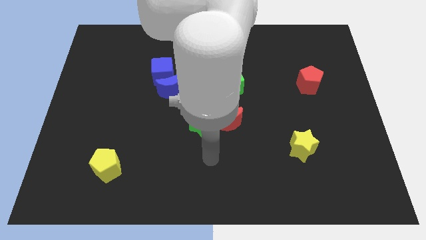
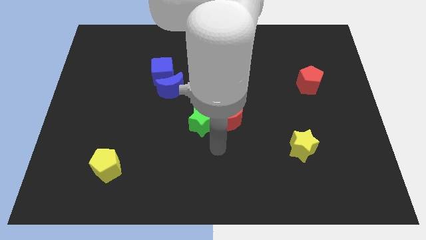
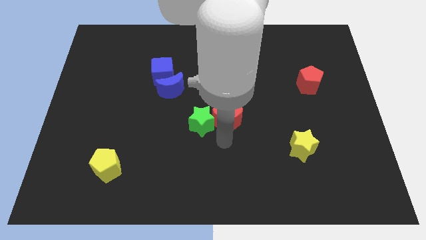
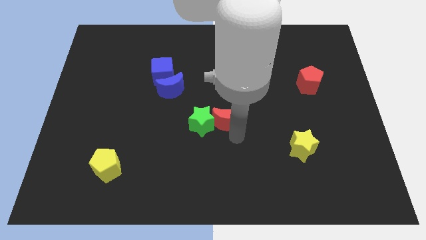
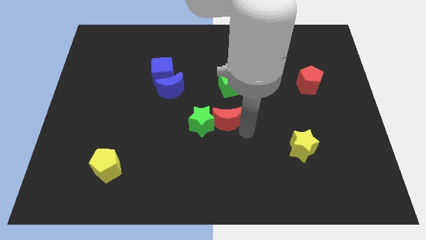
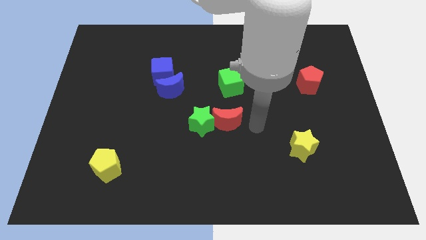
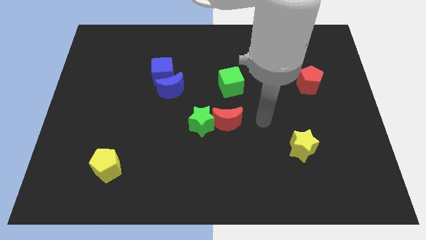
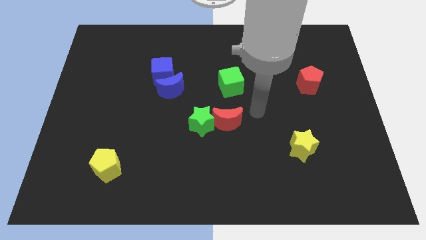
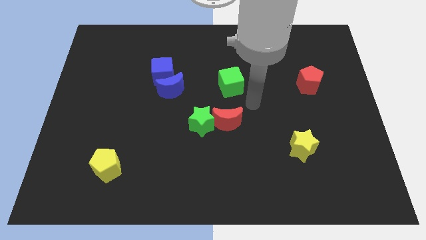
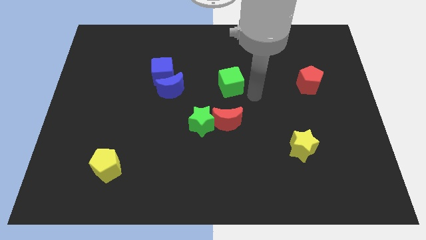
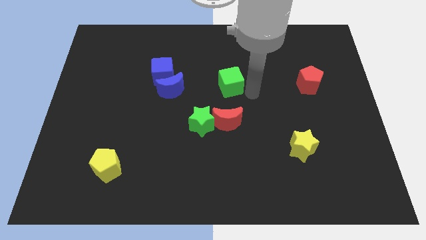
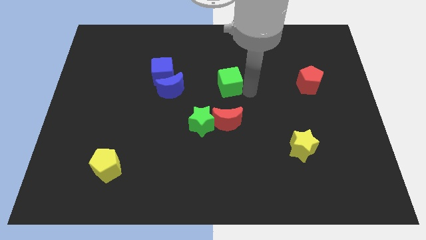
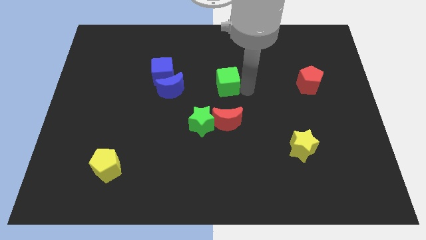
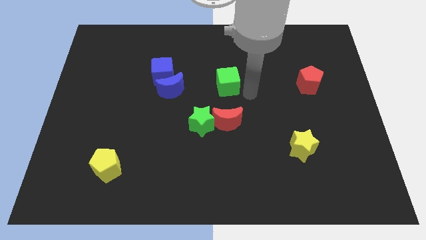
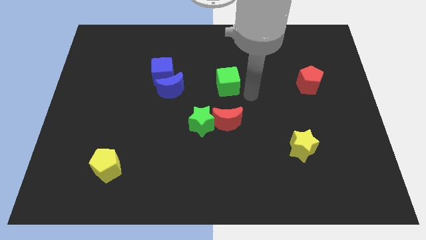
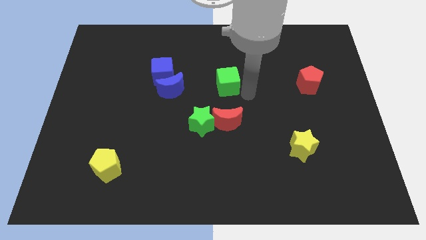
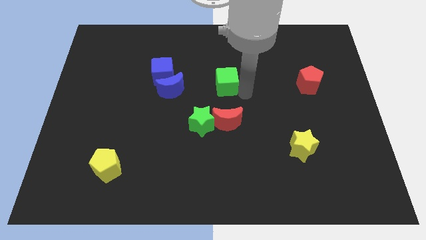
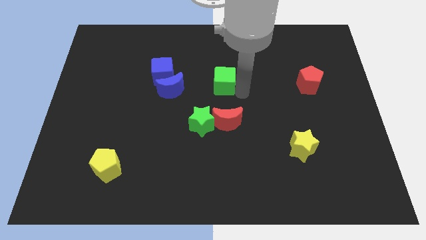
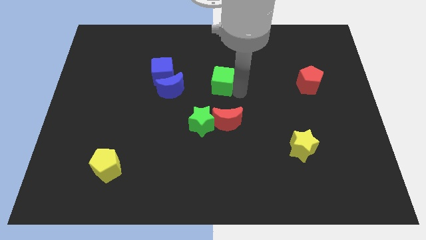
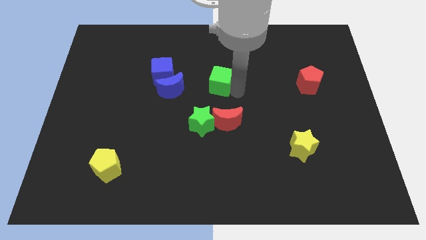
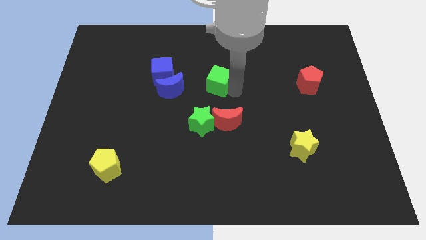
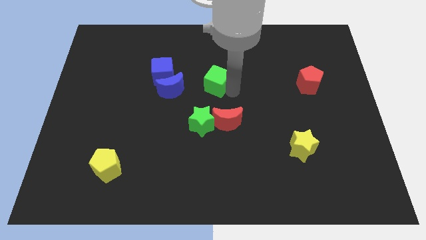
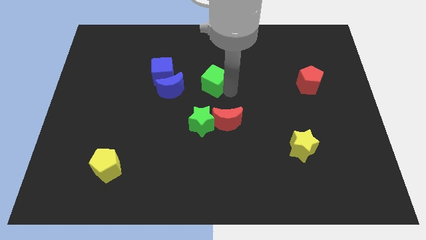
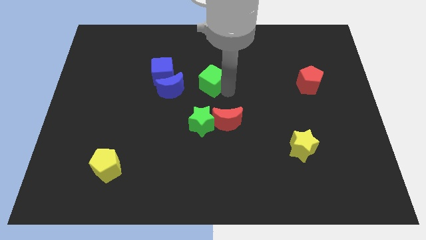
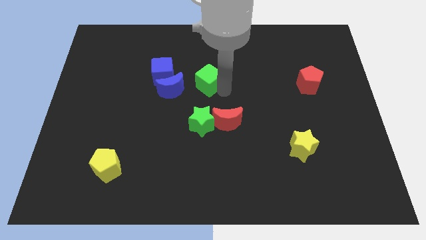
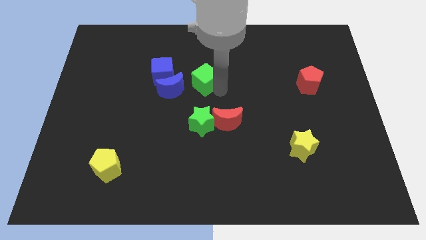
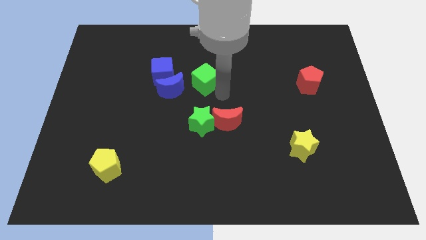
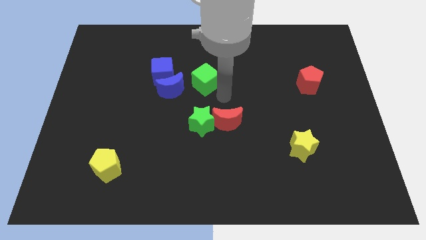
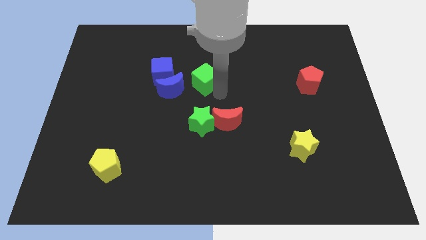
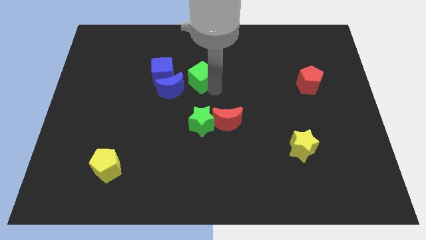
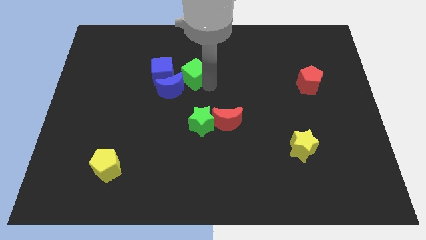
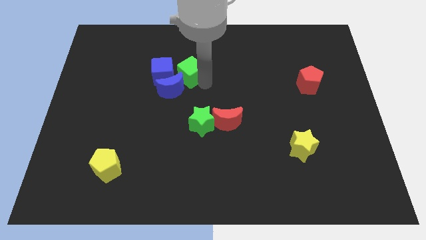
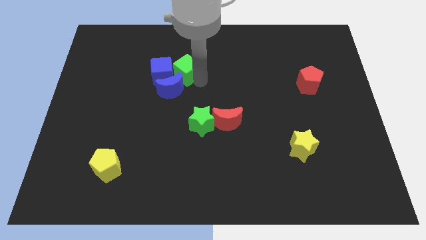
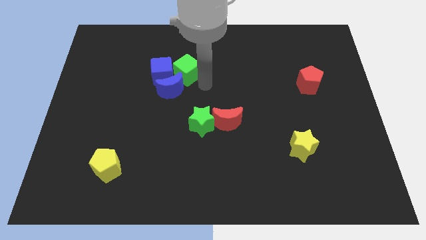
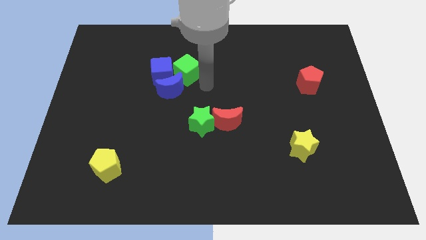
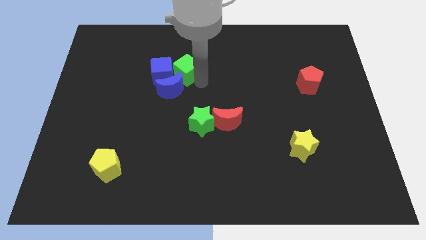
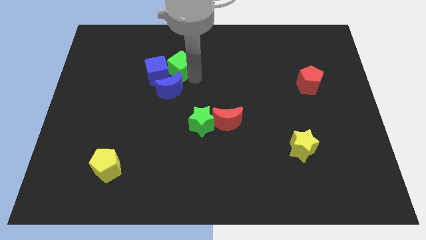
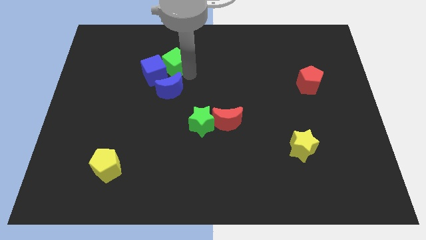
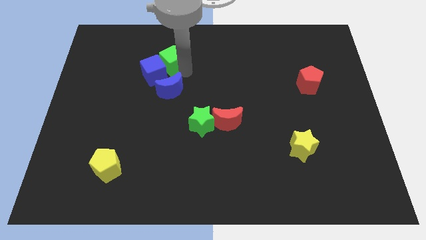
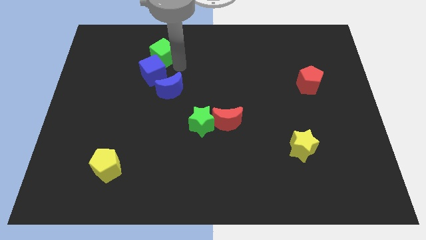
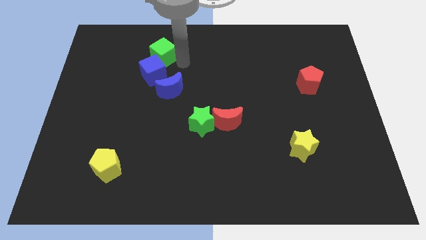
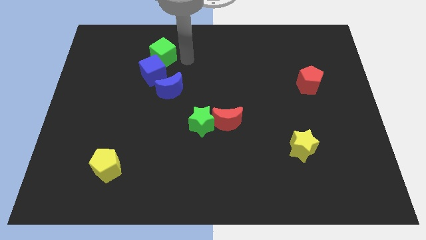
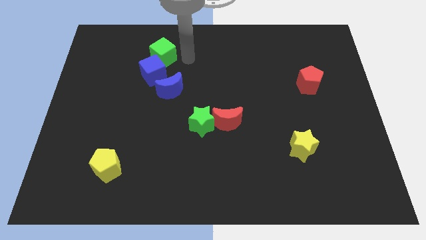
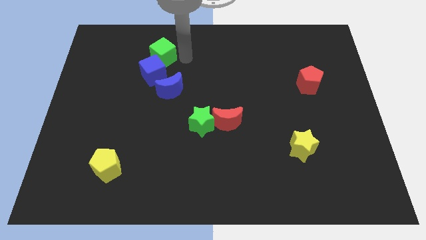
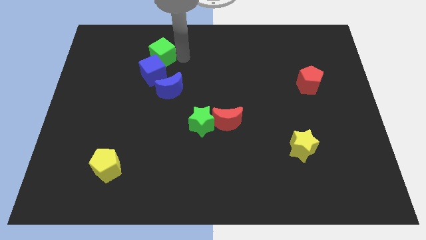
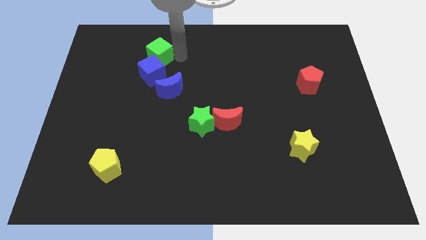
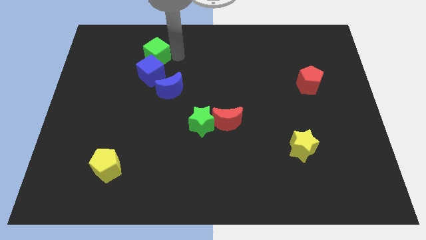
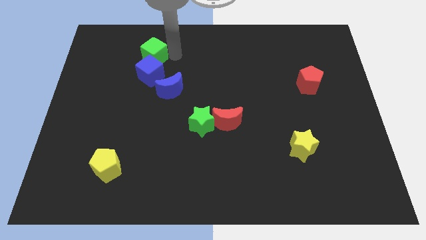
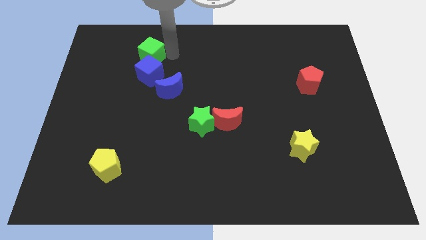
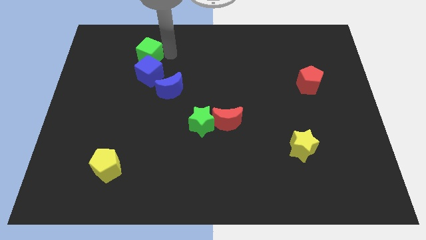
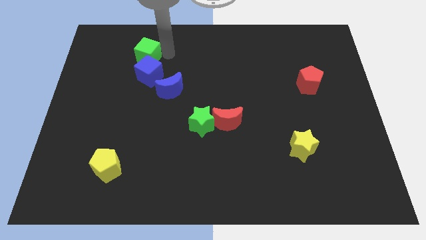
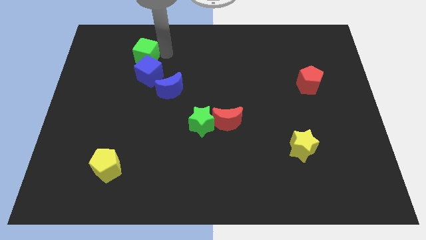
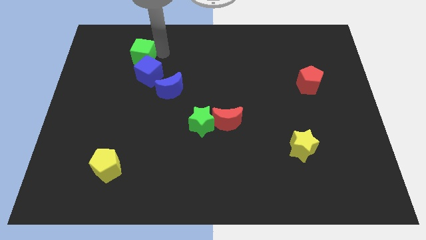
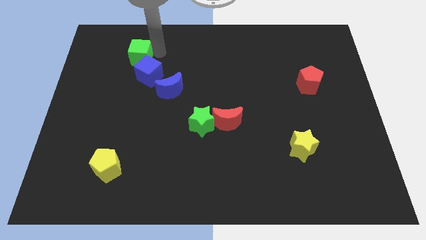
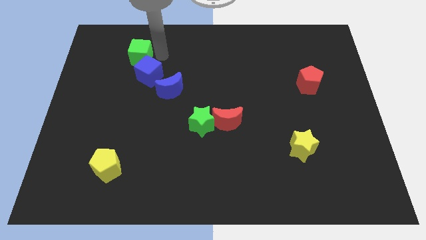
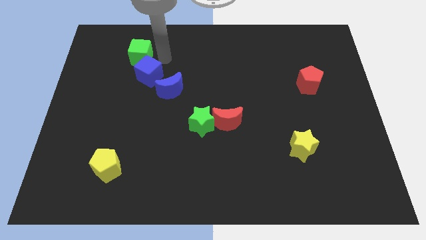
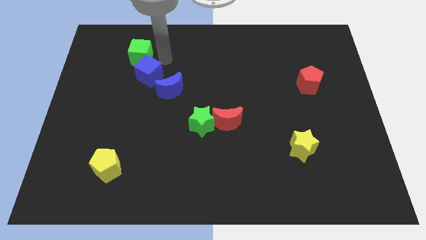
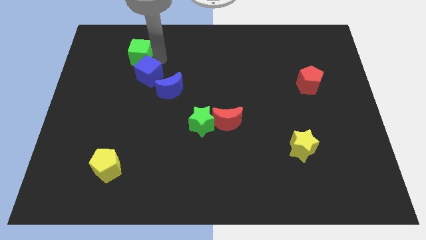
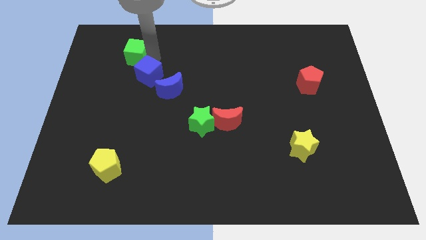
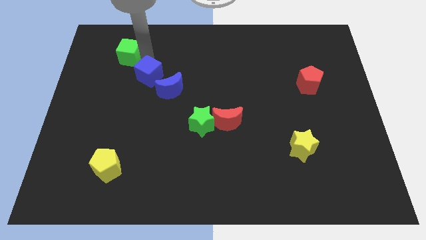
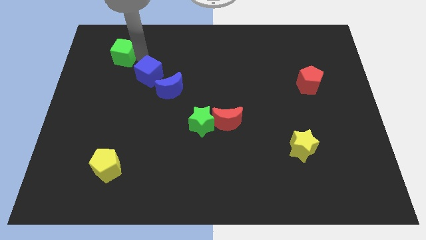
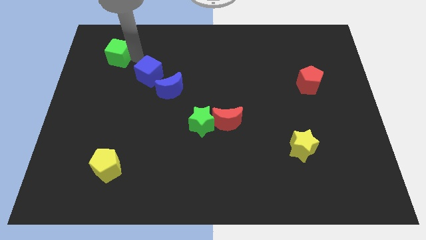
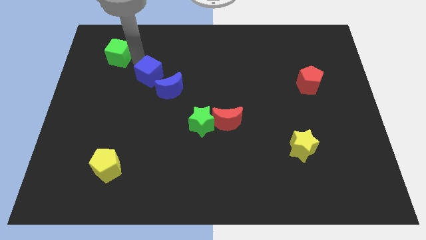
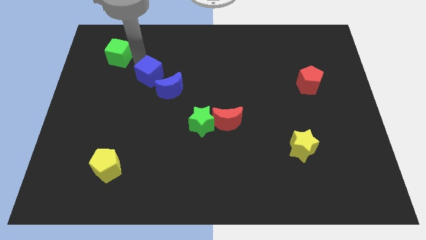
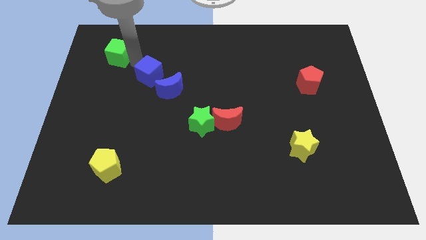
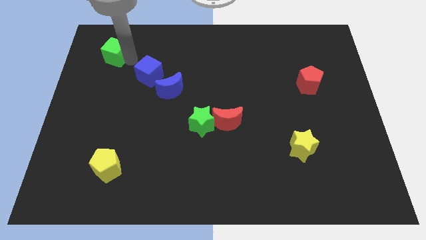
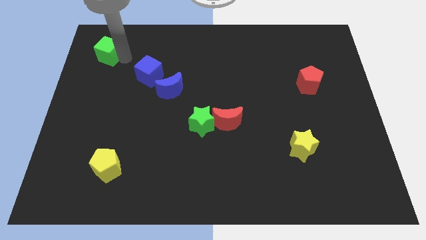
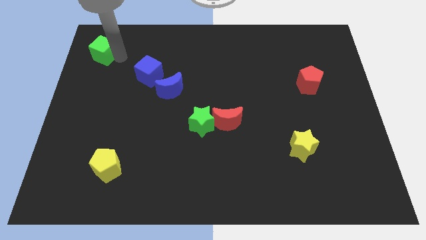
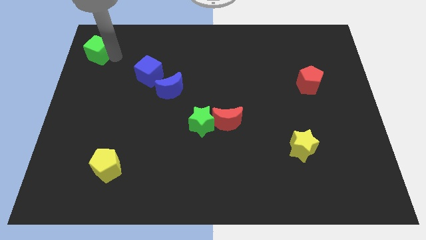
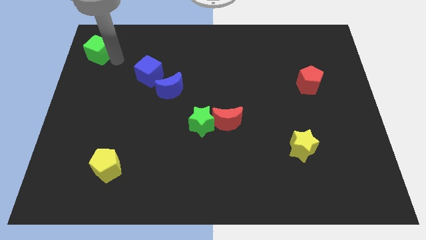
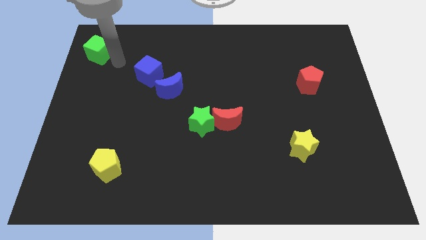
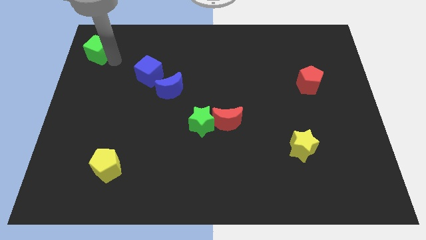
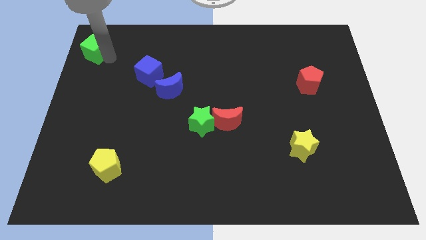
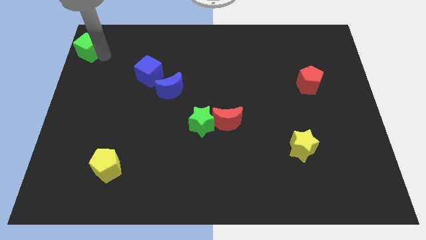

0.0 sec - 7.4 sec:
move the green cube to the top left of the board
